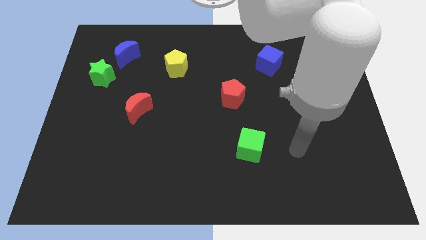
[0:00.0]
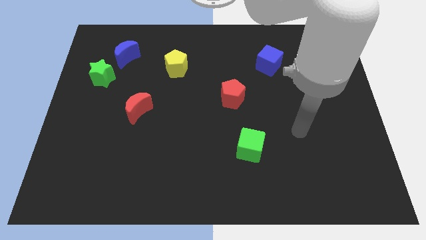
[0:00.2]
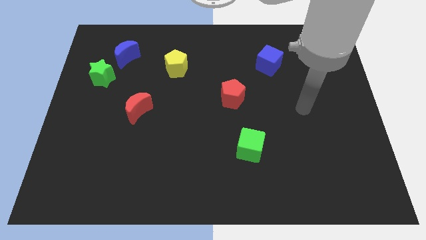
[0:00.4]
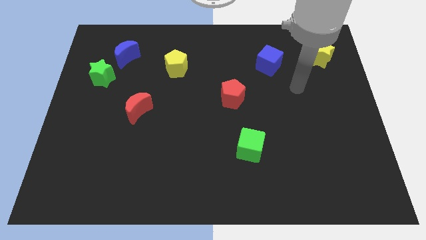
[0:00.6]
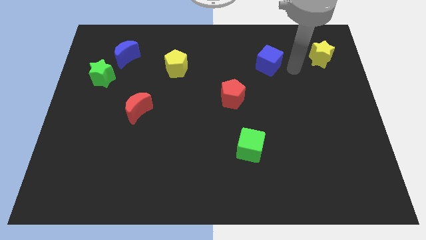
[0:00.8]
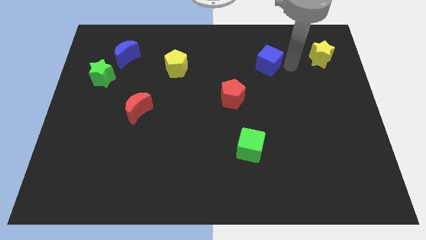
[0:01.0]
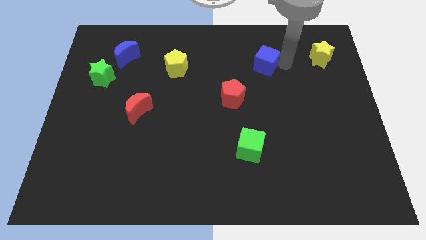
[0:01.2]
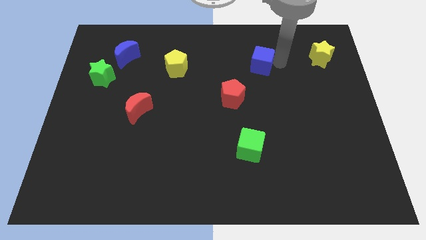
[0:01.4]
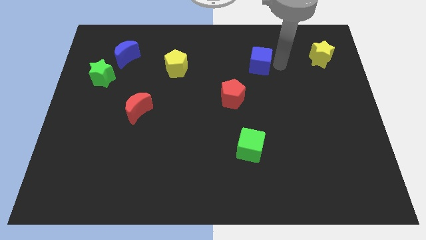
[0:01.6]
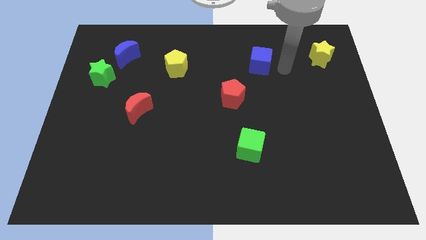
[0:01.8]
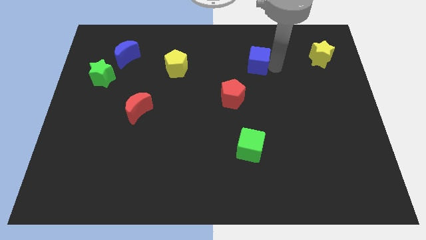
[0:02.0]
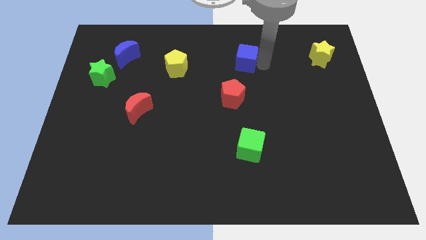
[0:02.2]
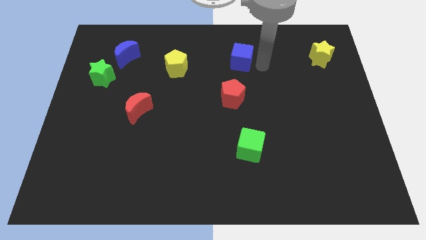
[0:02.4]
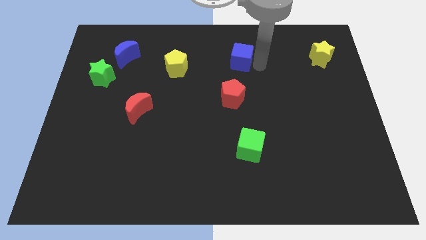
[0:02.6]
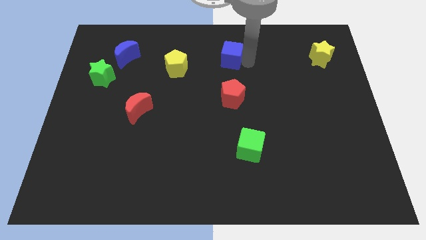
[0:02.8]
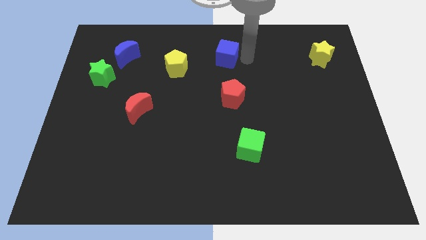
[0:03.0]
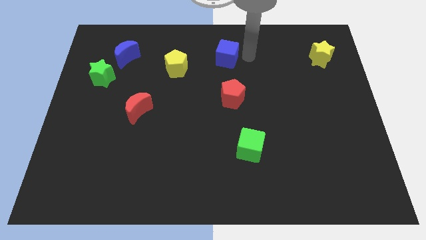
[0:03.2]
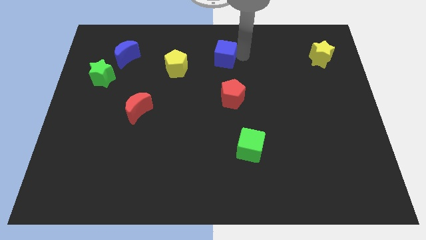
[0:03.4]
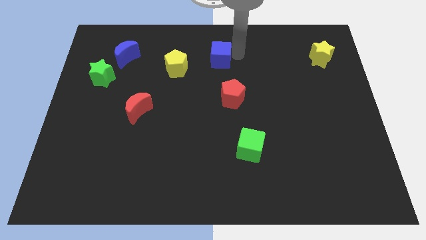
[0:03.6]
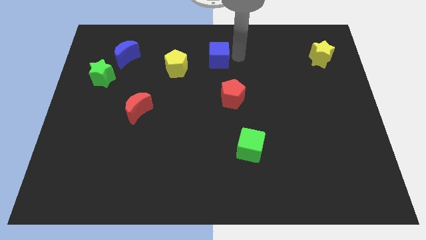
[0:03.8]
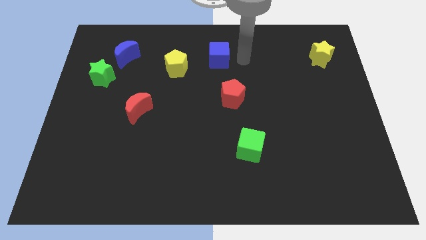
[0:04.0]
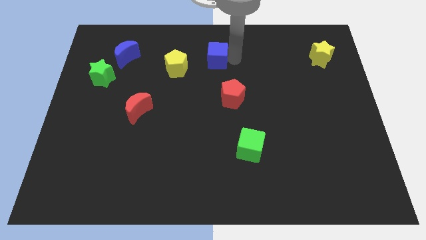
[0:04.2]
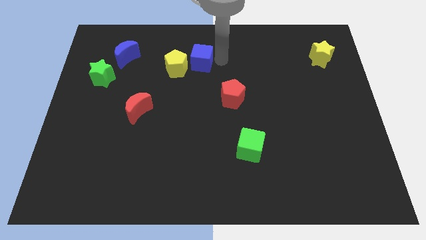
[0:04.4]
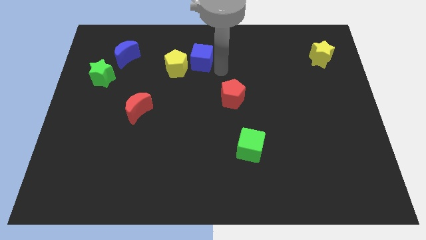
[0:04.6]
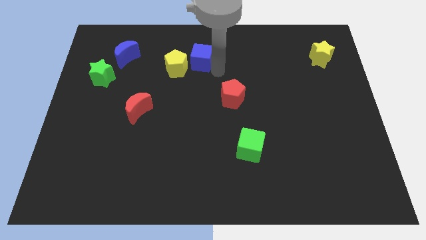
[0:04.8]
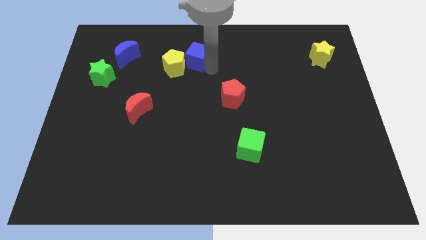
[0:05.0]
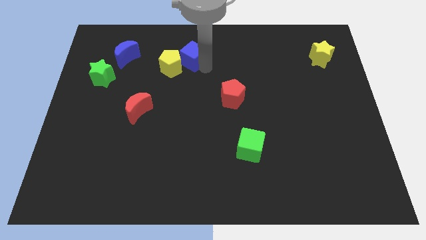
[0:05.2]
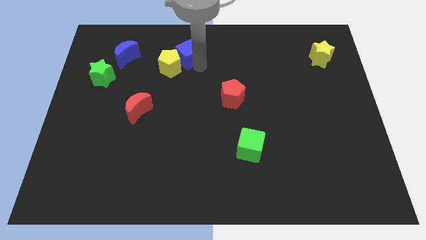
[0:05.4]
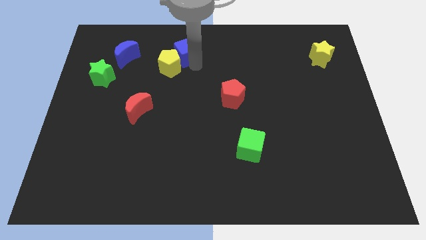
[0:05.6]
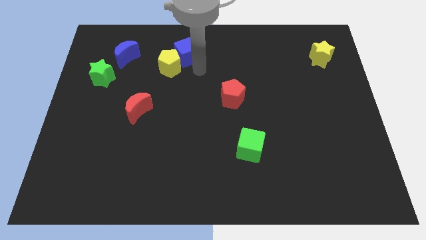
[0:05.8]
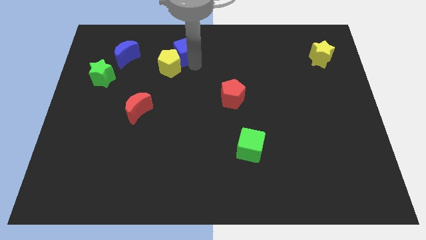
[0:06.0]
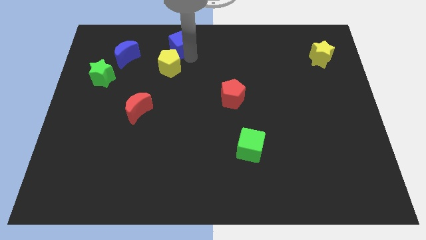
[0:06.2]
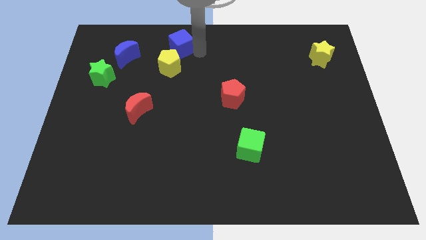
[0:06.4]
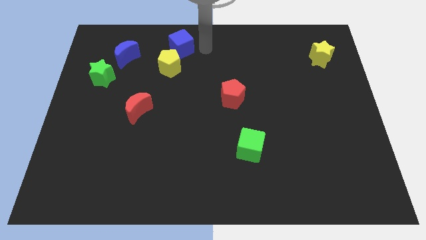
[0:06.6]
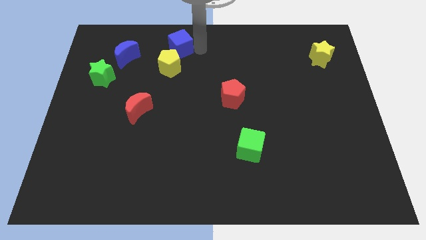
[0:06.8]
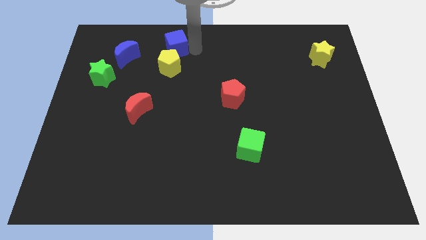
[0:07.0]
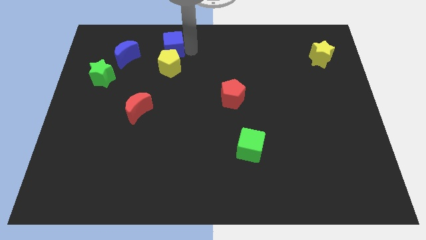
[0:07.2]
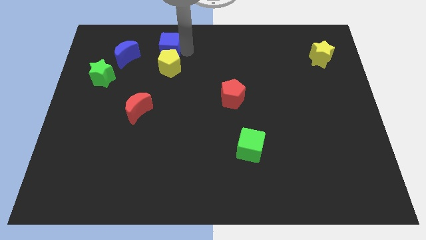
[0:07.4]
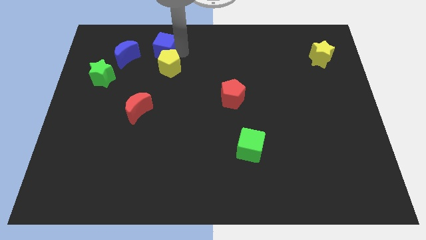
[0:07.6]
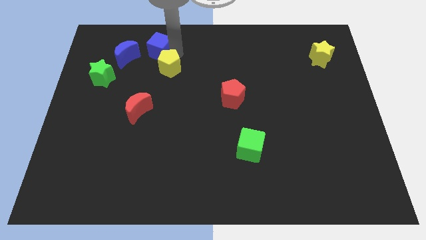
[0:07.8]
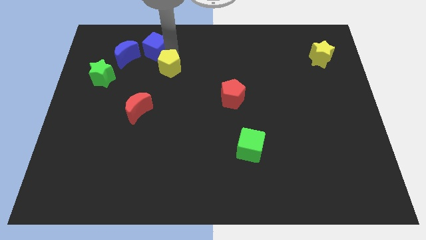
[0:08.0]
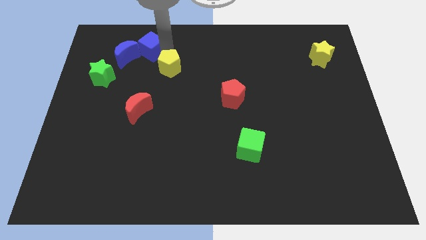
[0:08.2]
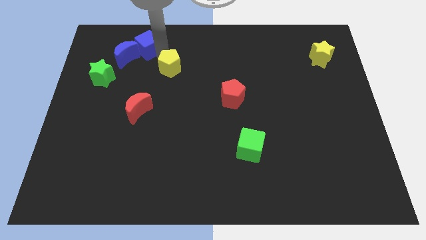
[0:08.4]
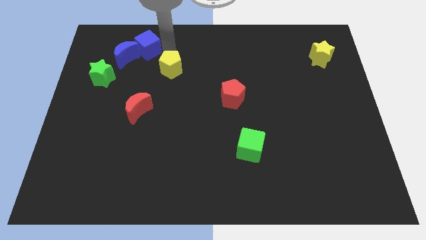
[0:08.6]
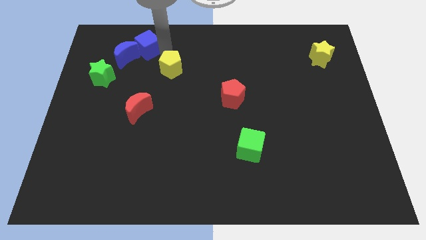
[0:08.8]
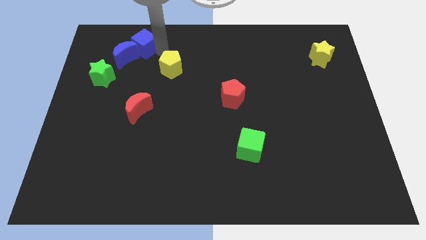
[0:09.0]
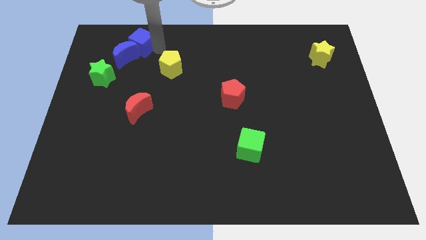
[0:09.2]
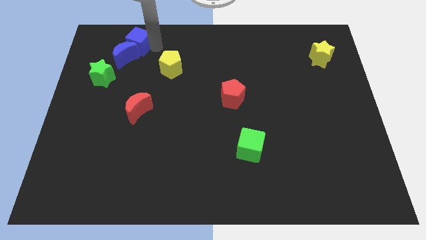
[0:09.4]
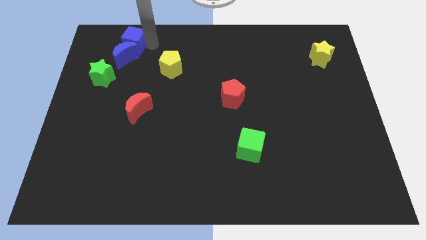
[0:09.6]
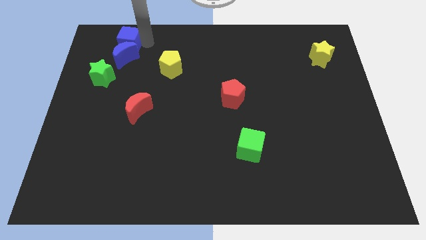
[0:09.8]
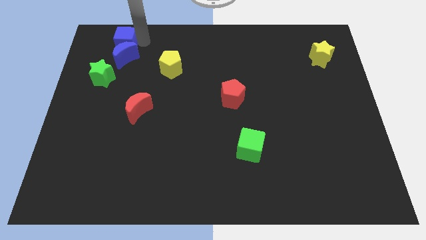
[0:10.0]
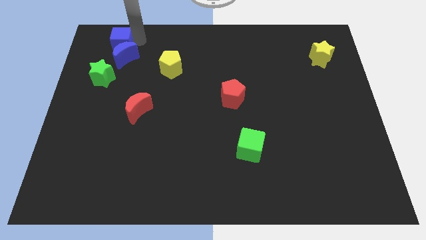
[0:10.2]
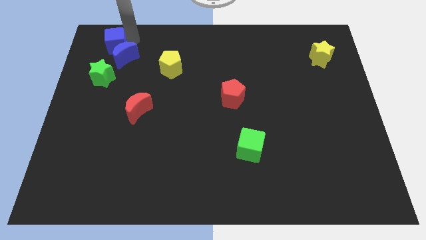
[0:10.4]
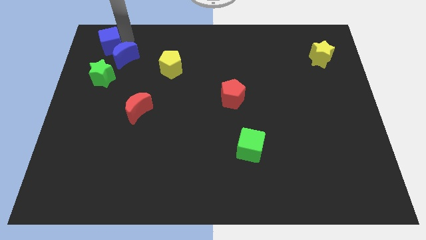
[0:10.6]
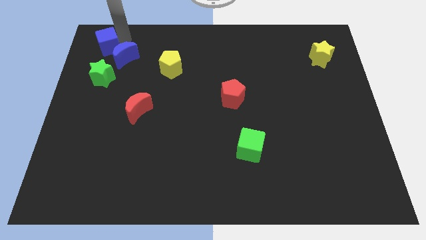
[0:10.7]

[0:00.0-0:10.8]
slide the blue cube to the top left

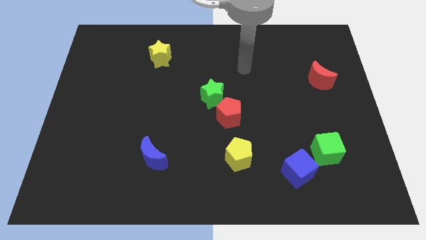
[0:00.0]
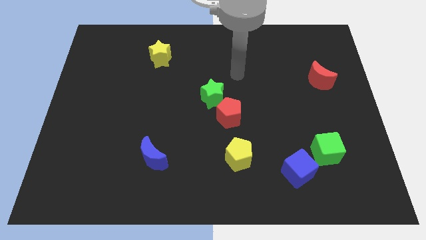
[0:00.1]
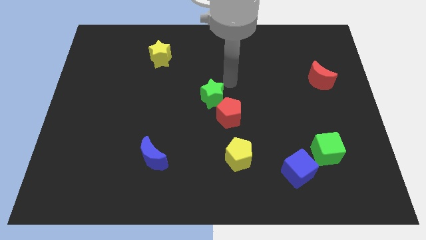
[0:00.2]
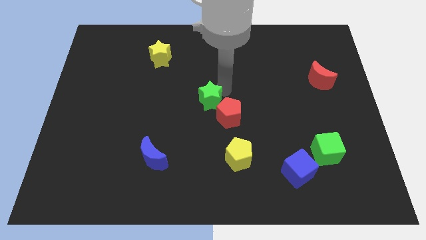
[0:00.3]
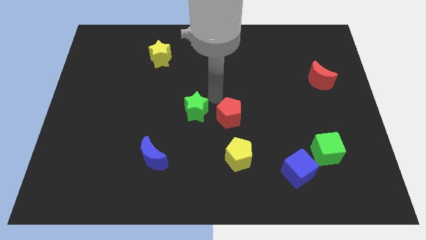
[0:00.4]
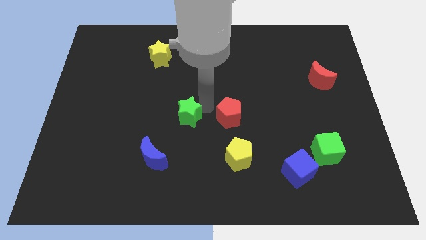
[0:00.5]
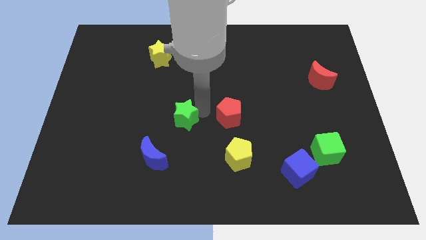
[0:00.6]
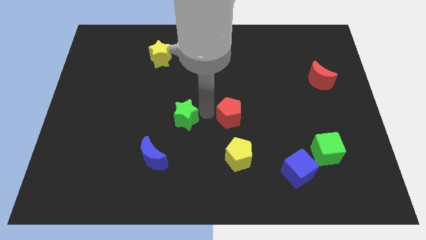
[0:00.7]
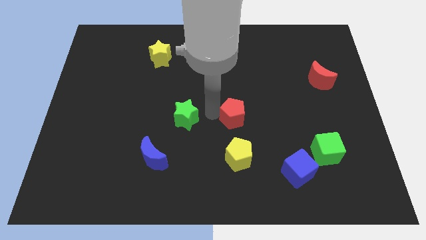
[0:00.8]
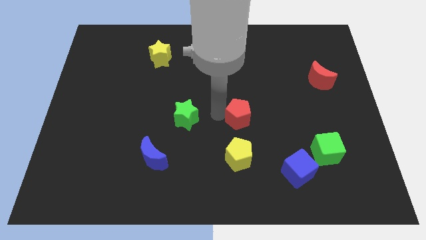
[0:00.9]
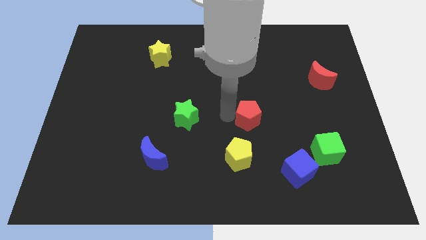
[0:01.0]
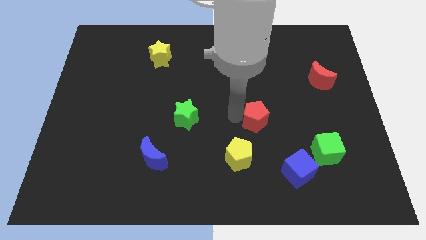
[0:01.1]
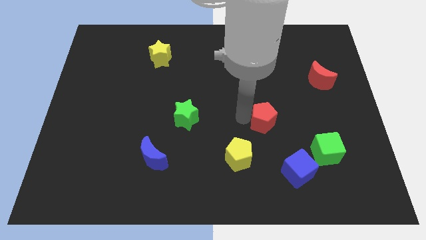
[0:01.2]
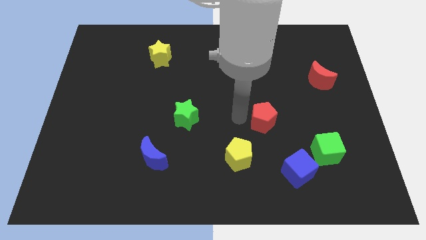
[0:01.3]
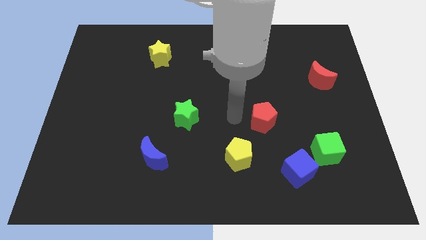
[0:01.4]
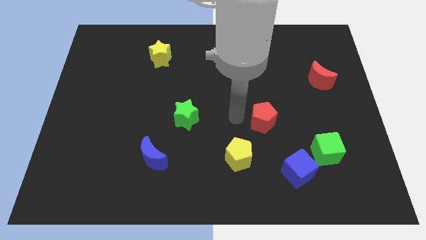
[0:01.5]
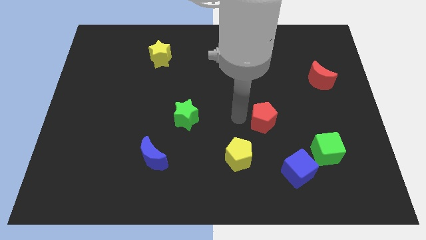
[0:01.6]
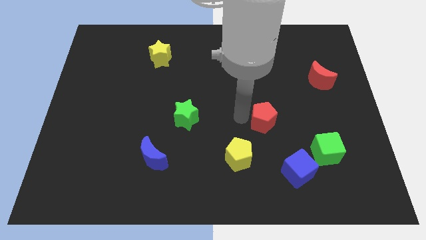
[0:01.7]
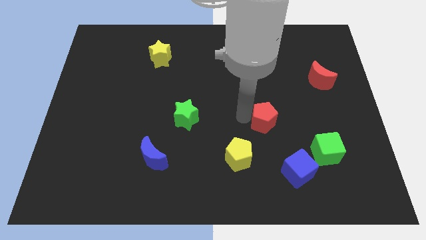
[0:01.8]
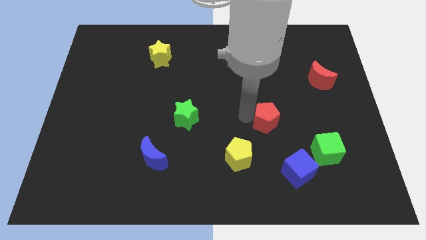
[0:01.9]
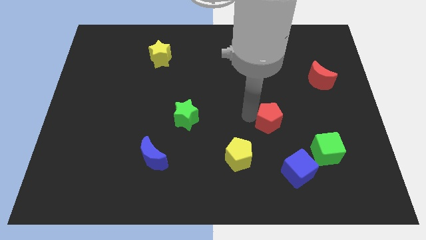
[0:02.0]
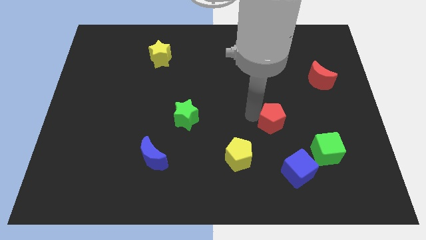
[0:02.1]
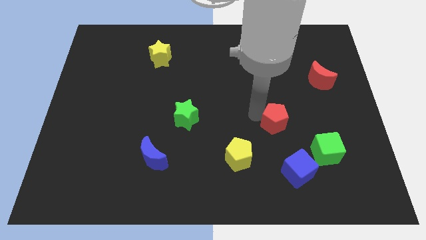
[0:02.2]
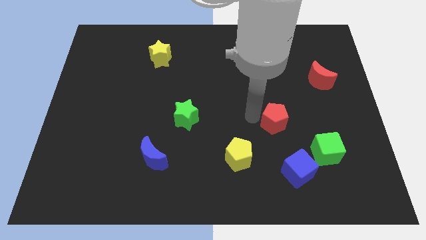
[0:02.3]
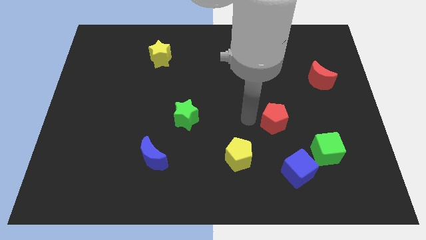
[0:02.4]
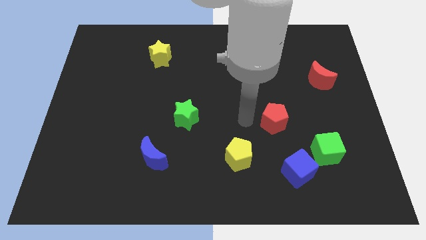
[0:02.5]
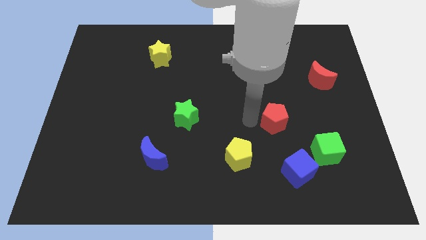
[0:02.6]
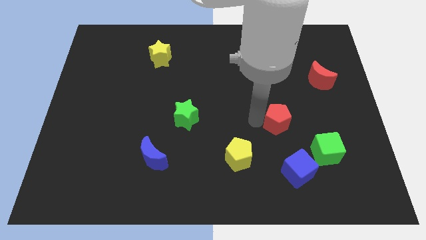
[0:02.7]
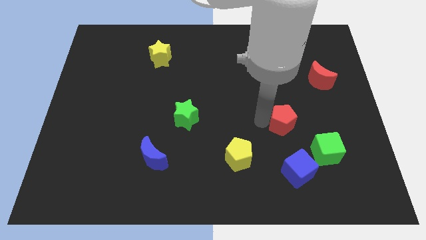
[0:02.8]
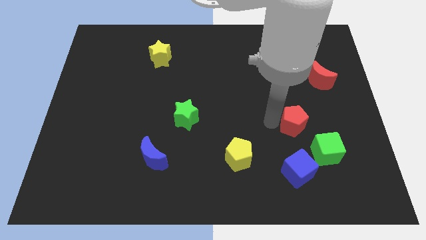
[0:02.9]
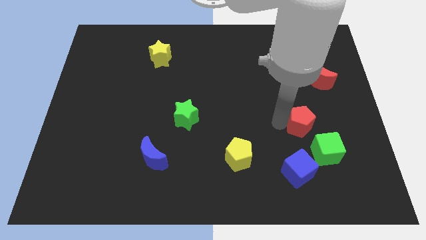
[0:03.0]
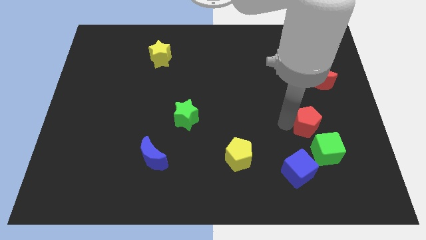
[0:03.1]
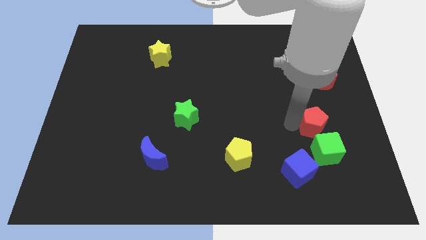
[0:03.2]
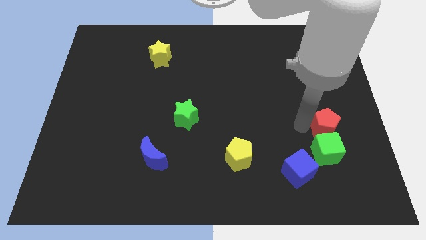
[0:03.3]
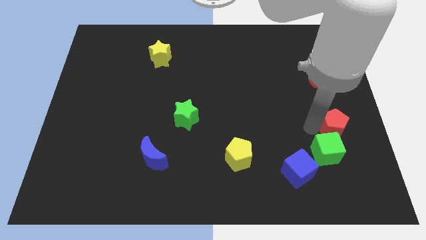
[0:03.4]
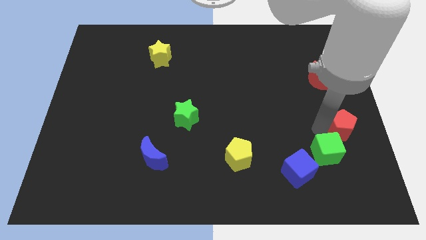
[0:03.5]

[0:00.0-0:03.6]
push the red pentagon to the right side
